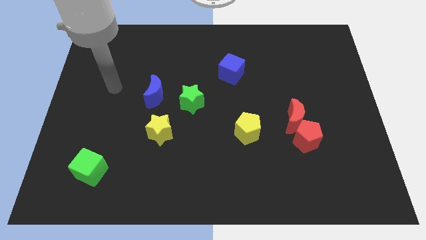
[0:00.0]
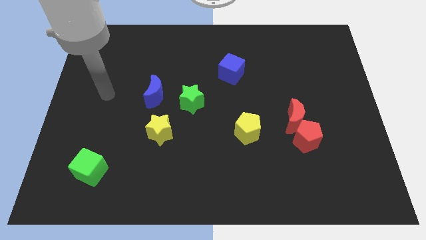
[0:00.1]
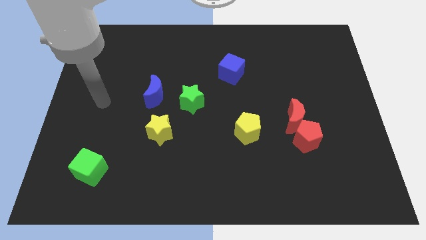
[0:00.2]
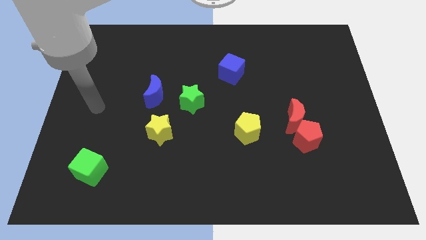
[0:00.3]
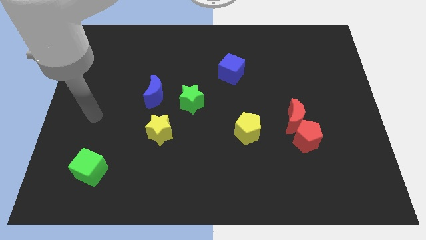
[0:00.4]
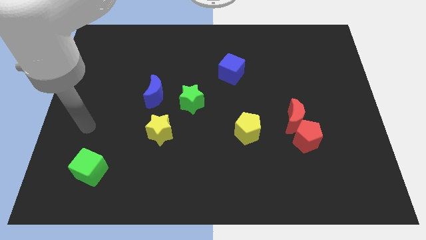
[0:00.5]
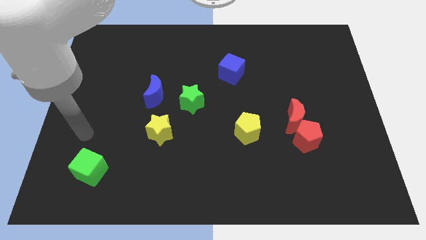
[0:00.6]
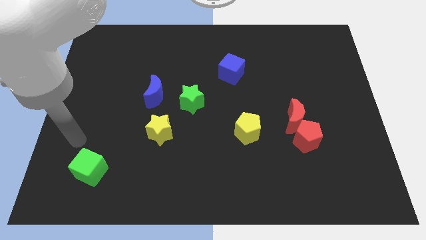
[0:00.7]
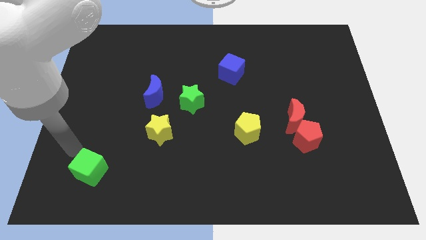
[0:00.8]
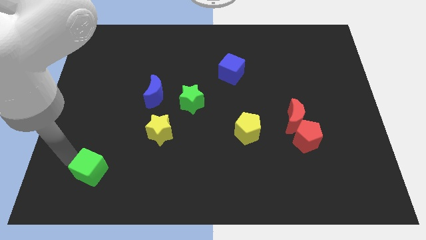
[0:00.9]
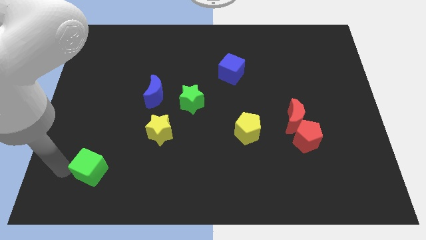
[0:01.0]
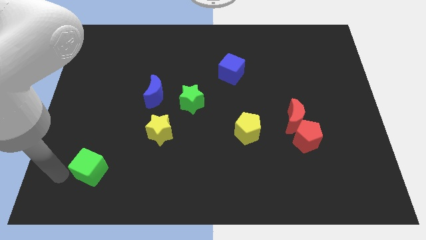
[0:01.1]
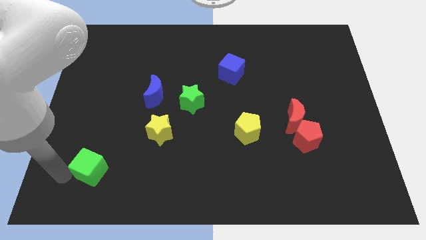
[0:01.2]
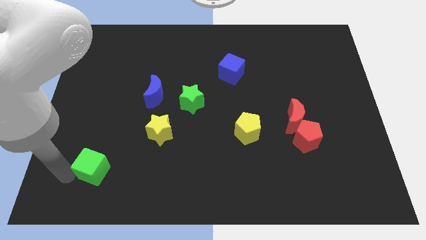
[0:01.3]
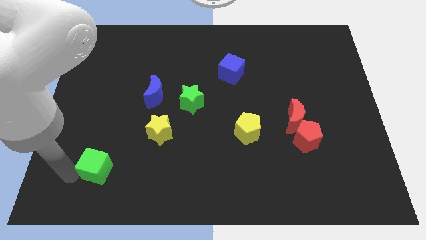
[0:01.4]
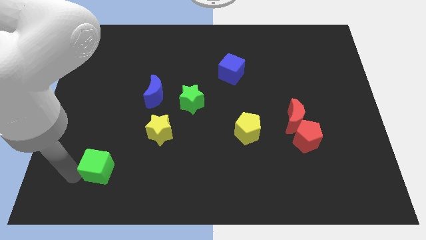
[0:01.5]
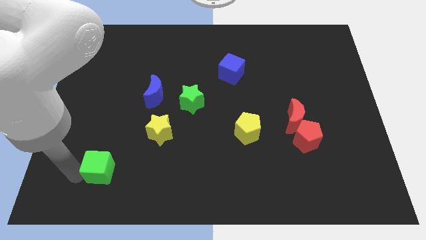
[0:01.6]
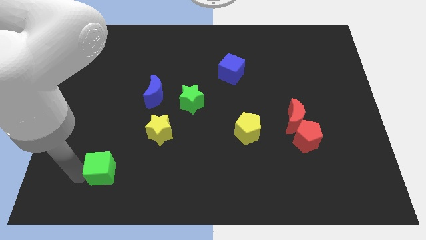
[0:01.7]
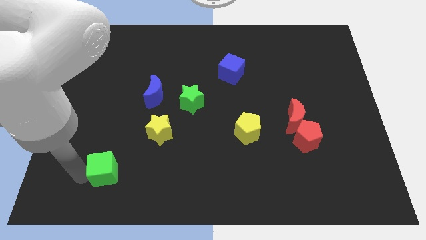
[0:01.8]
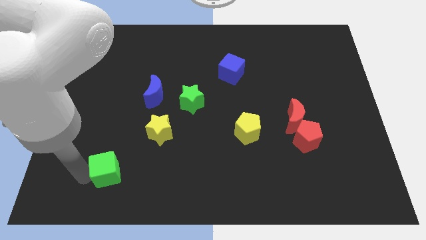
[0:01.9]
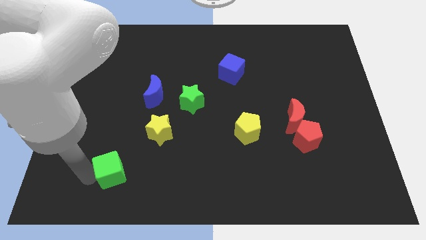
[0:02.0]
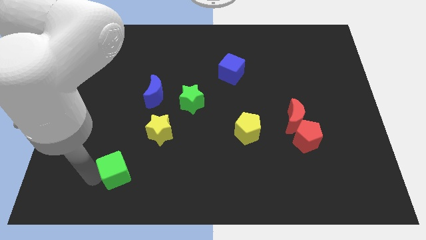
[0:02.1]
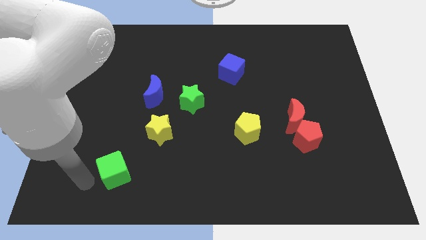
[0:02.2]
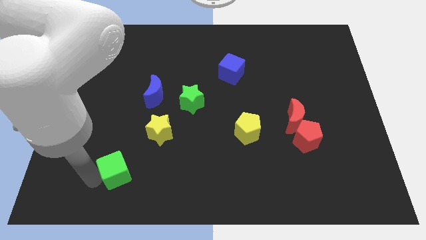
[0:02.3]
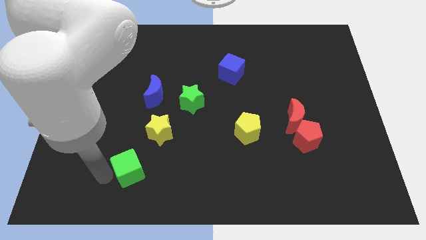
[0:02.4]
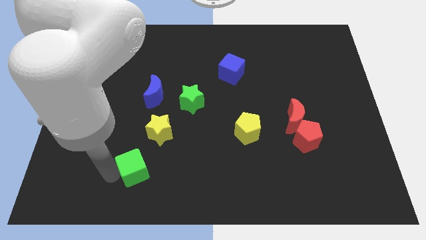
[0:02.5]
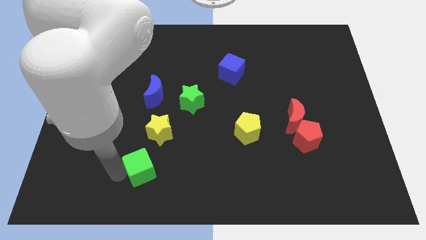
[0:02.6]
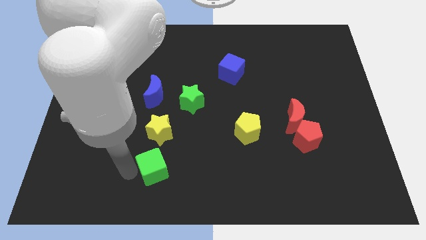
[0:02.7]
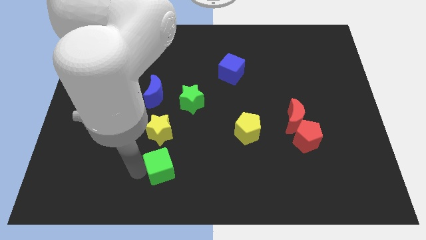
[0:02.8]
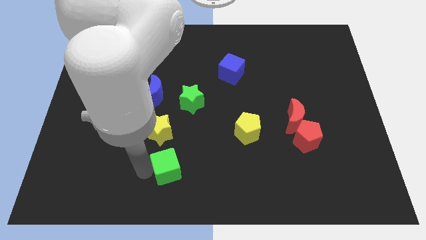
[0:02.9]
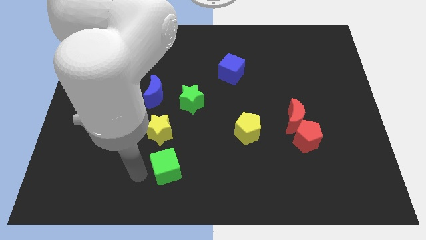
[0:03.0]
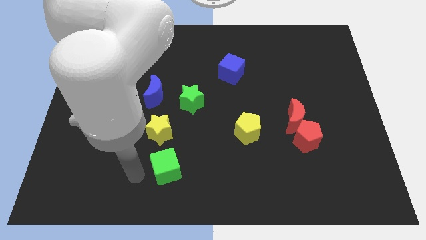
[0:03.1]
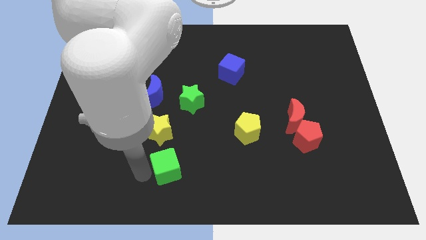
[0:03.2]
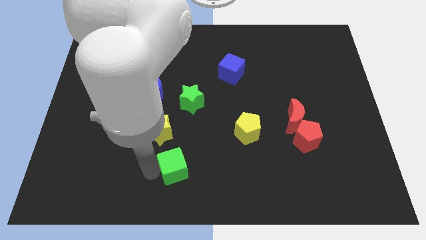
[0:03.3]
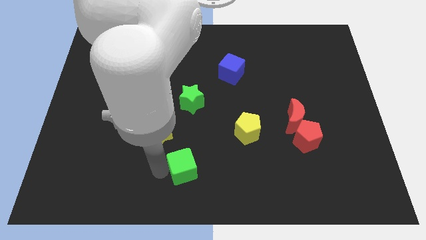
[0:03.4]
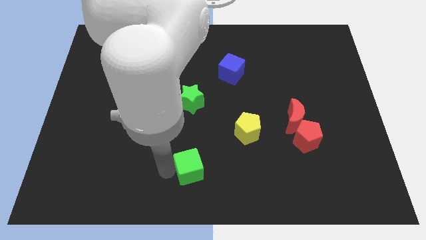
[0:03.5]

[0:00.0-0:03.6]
move the green cube right

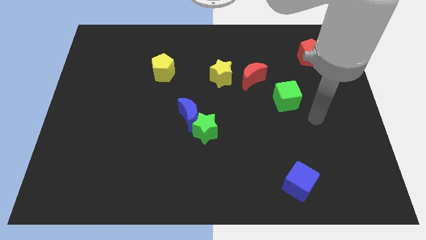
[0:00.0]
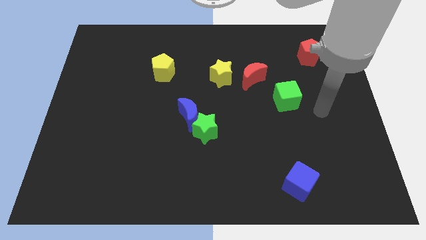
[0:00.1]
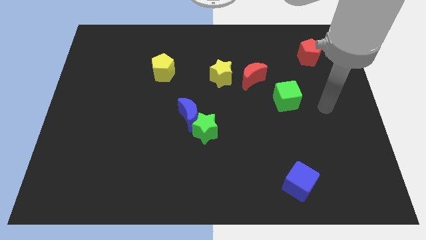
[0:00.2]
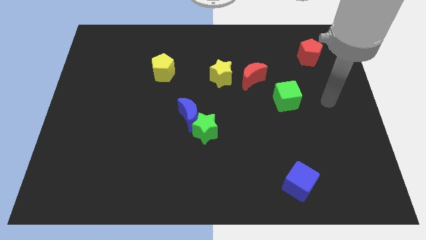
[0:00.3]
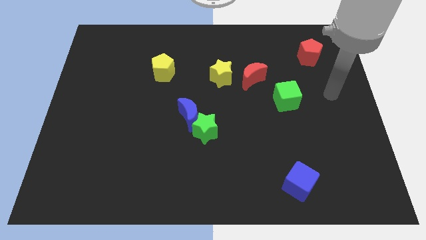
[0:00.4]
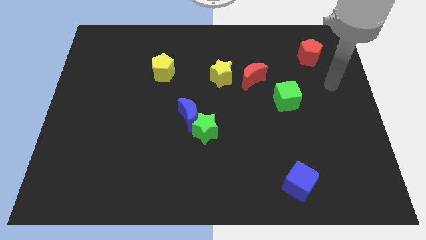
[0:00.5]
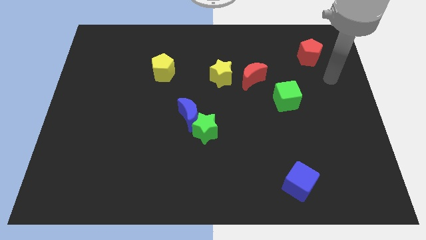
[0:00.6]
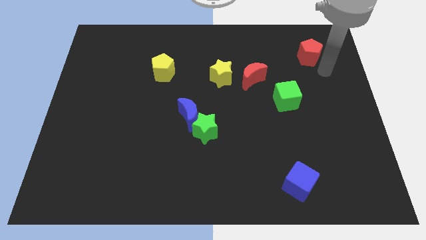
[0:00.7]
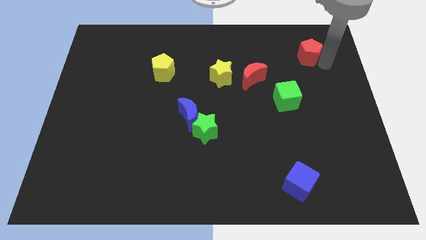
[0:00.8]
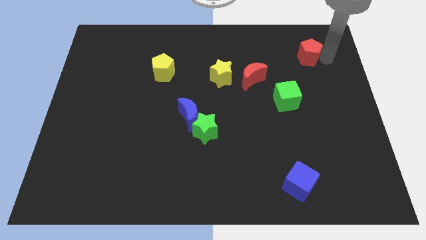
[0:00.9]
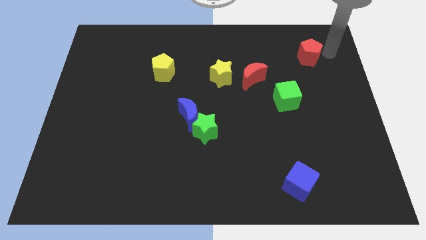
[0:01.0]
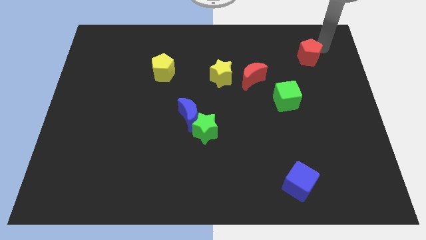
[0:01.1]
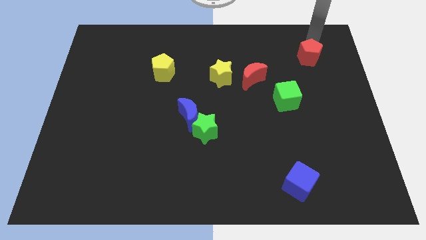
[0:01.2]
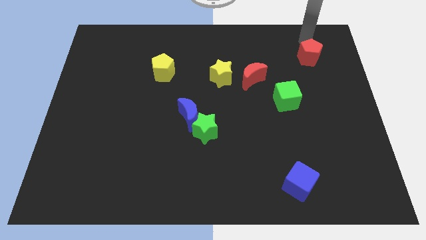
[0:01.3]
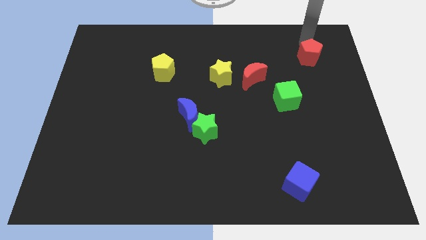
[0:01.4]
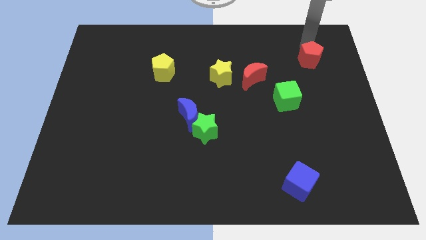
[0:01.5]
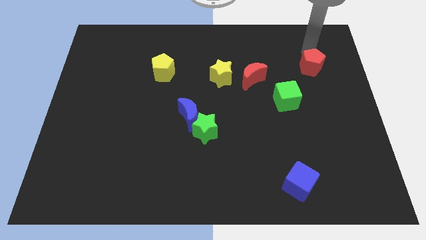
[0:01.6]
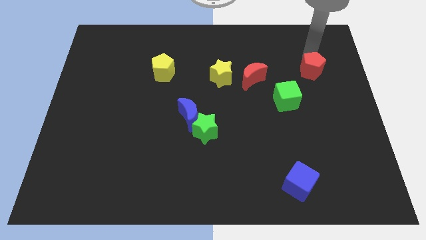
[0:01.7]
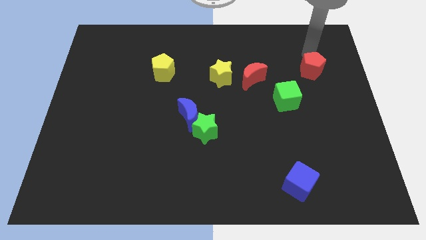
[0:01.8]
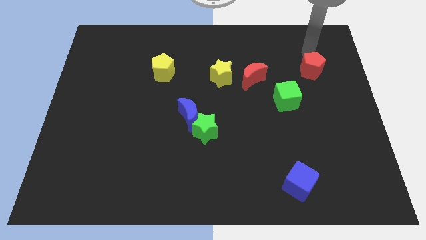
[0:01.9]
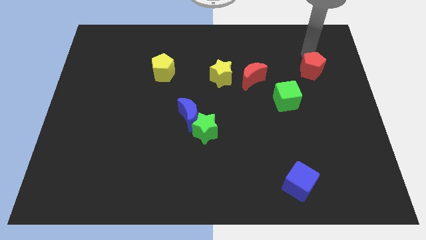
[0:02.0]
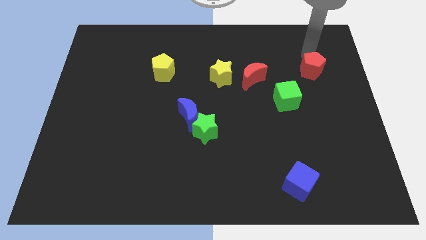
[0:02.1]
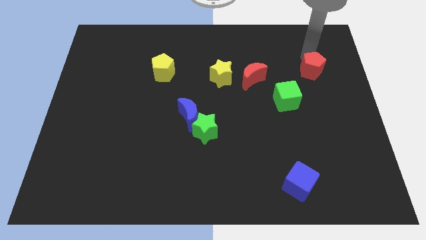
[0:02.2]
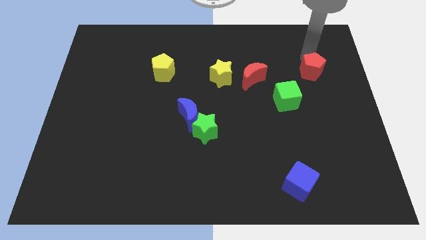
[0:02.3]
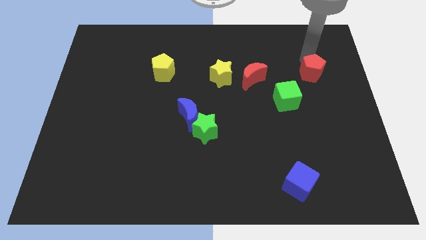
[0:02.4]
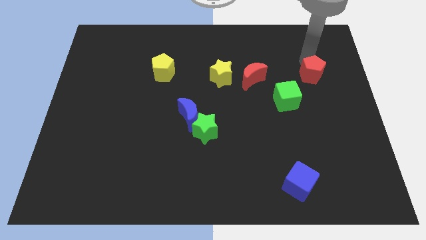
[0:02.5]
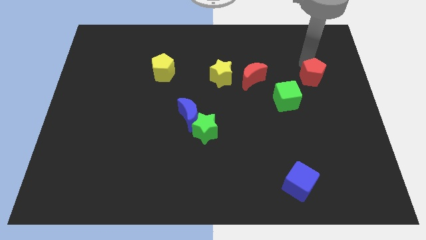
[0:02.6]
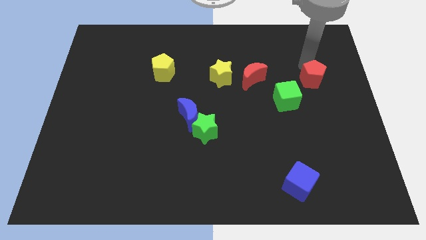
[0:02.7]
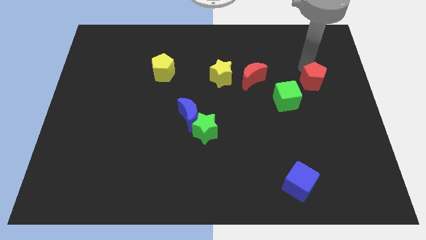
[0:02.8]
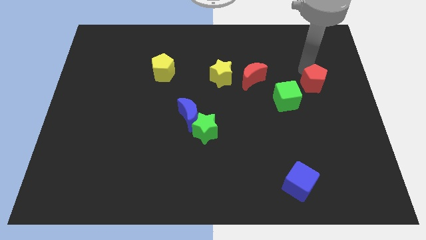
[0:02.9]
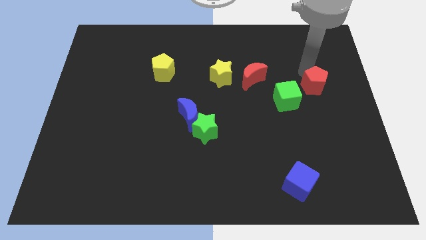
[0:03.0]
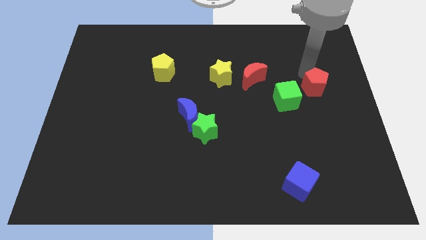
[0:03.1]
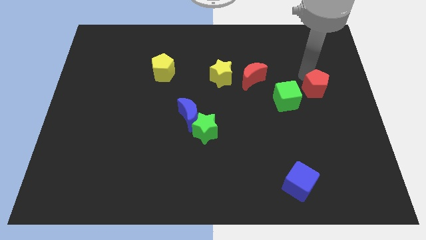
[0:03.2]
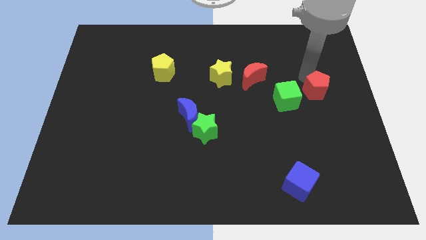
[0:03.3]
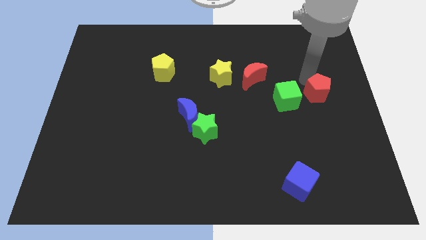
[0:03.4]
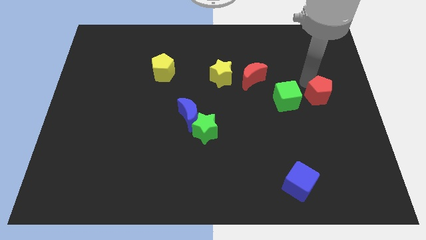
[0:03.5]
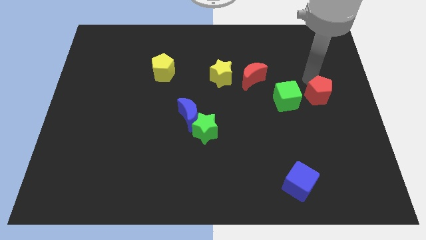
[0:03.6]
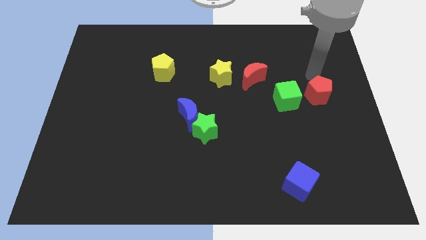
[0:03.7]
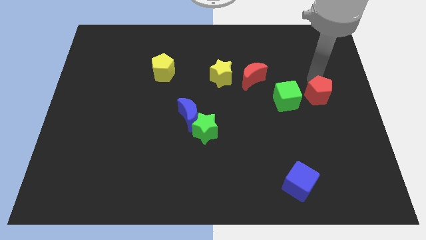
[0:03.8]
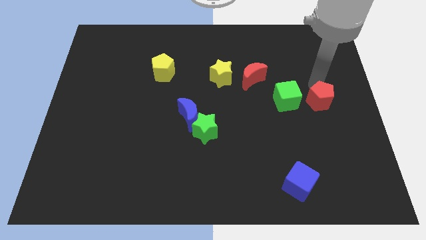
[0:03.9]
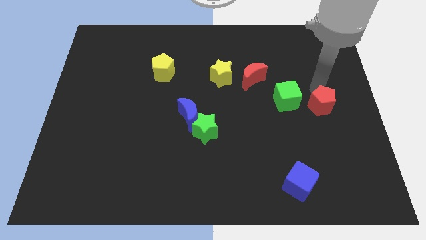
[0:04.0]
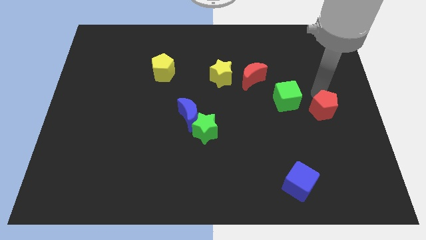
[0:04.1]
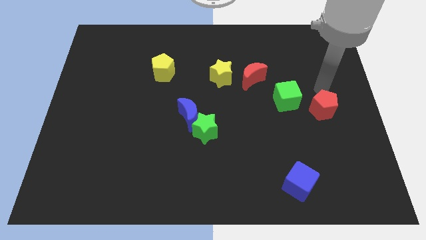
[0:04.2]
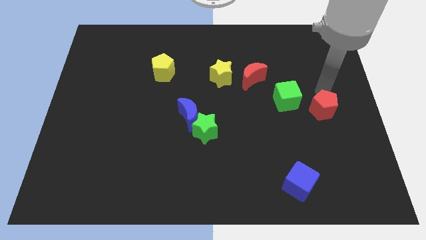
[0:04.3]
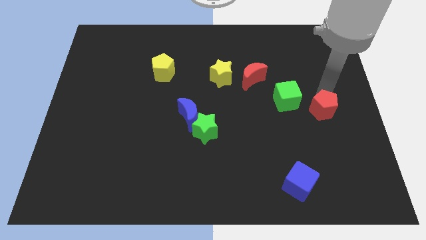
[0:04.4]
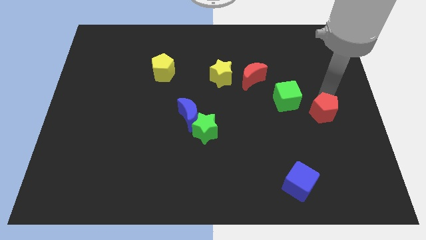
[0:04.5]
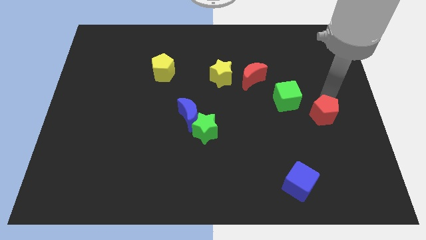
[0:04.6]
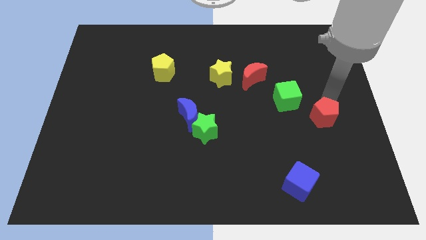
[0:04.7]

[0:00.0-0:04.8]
move the red pentagon downwards
